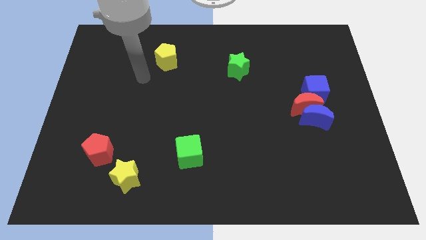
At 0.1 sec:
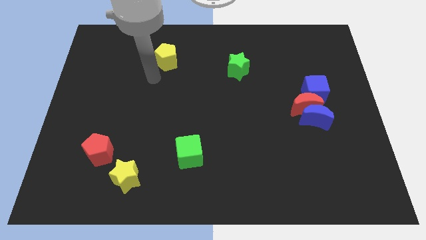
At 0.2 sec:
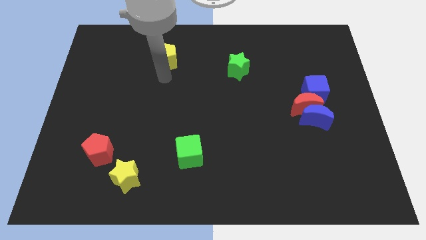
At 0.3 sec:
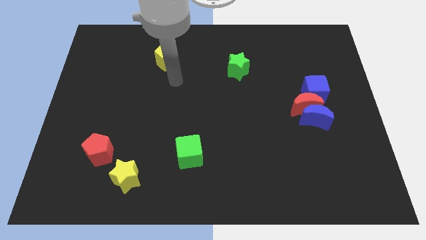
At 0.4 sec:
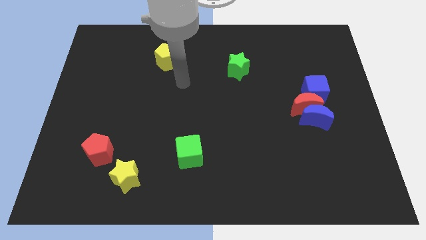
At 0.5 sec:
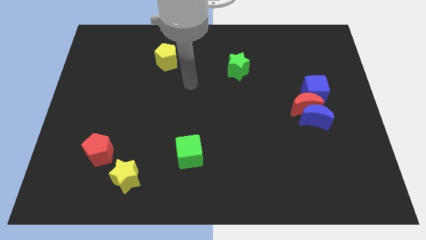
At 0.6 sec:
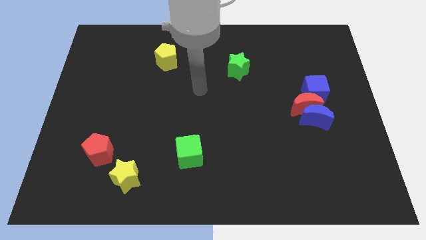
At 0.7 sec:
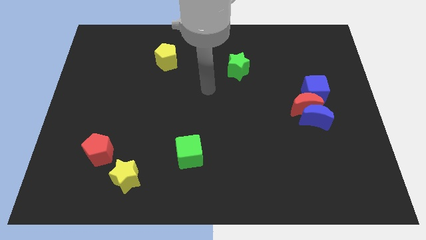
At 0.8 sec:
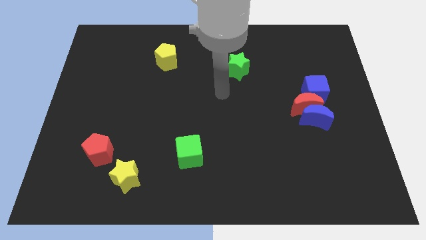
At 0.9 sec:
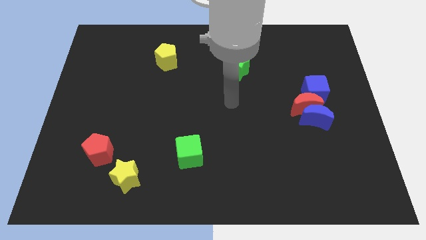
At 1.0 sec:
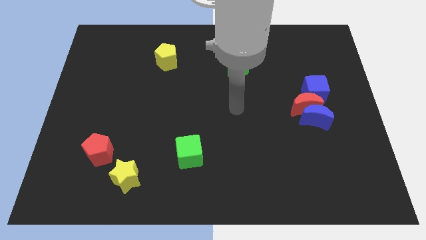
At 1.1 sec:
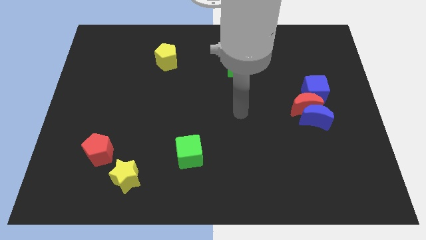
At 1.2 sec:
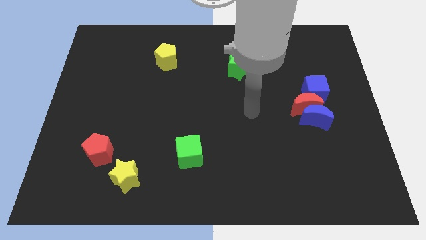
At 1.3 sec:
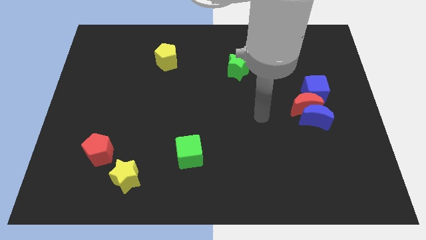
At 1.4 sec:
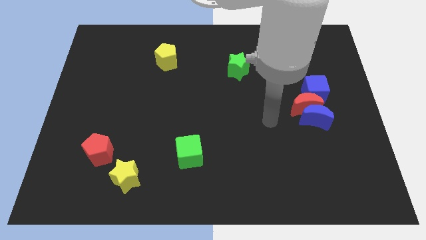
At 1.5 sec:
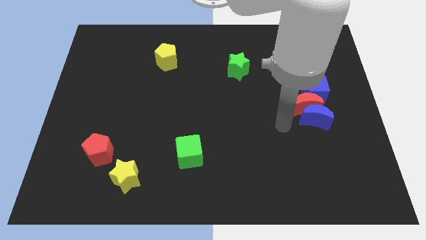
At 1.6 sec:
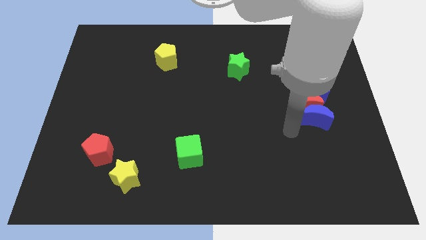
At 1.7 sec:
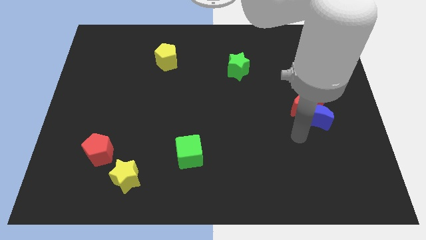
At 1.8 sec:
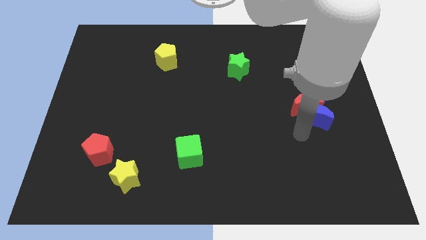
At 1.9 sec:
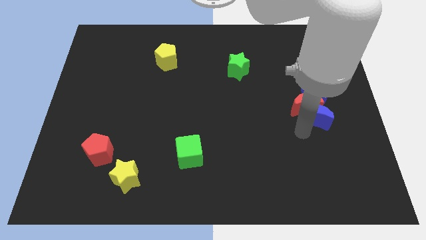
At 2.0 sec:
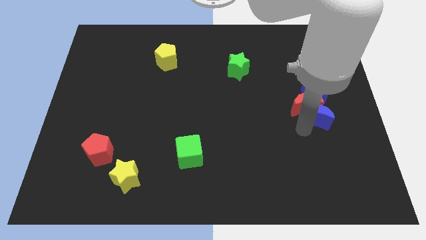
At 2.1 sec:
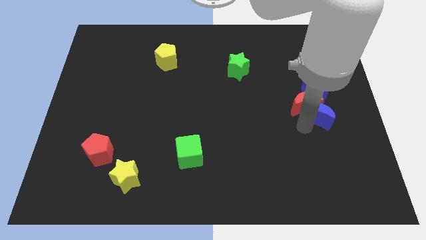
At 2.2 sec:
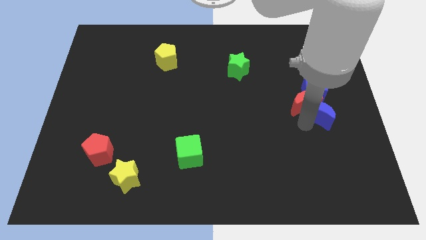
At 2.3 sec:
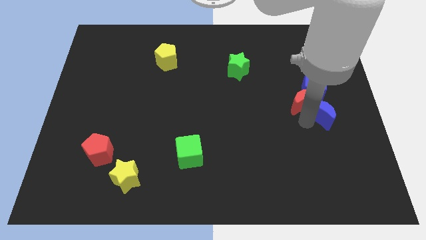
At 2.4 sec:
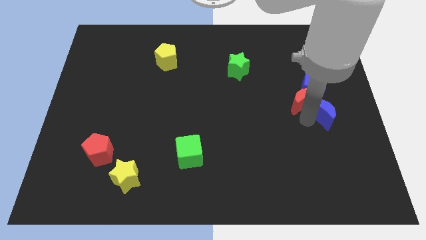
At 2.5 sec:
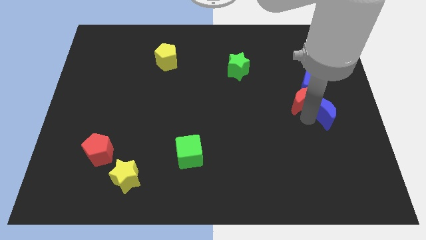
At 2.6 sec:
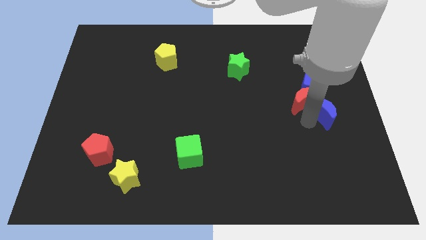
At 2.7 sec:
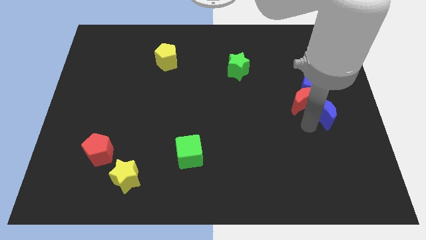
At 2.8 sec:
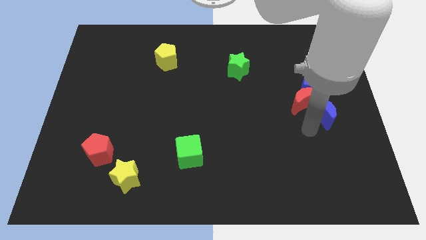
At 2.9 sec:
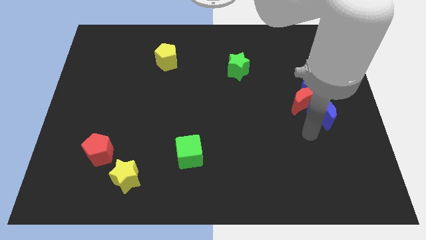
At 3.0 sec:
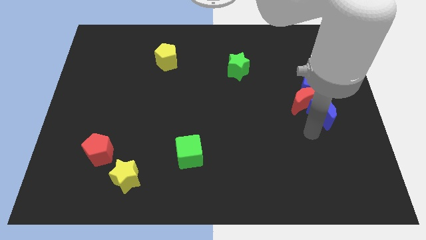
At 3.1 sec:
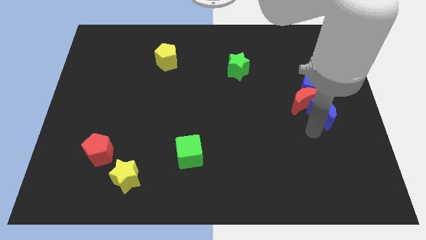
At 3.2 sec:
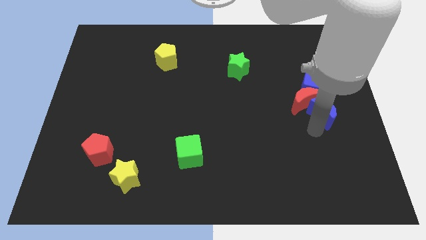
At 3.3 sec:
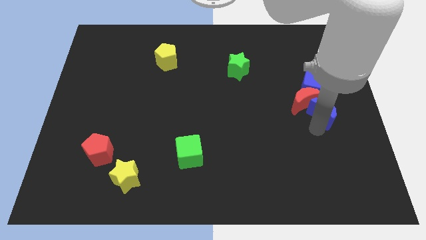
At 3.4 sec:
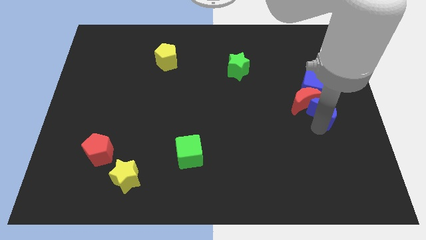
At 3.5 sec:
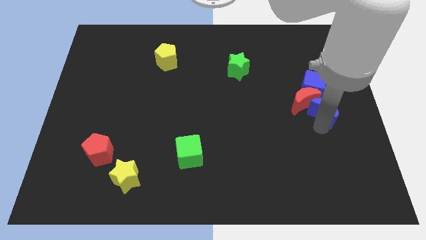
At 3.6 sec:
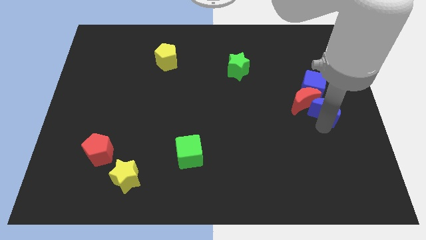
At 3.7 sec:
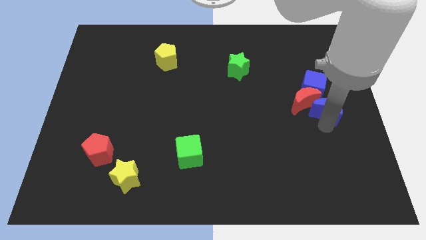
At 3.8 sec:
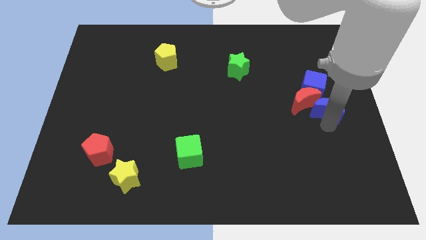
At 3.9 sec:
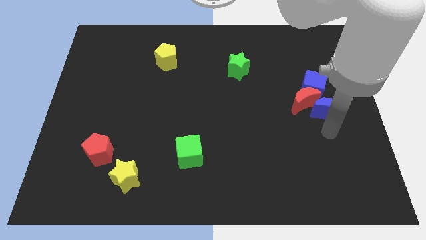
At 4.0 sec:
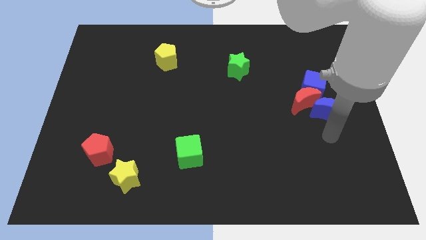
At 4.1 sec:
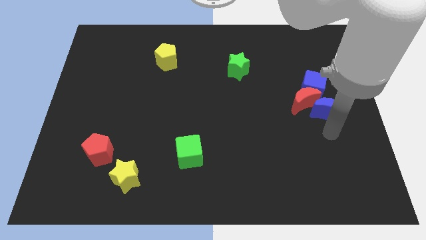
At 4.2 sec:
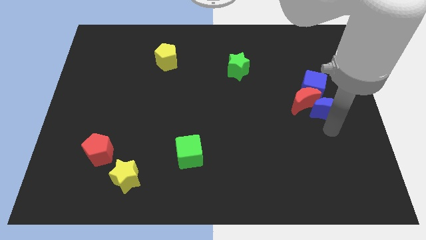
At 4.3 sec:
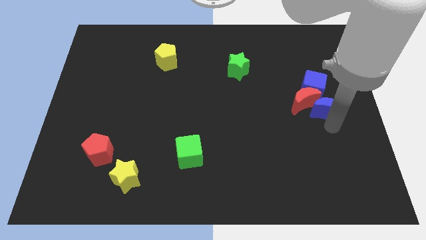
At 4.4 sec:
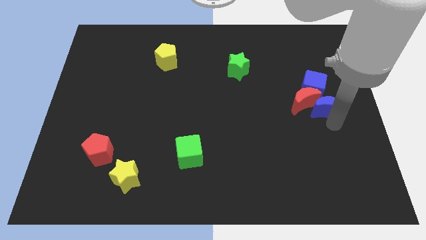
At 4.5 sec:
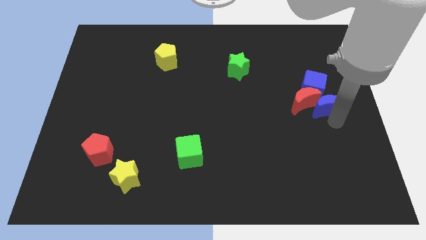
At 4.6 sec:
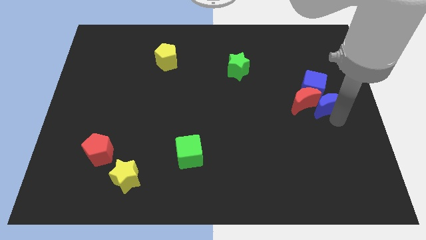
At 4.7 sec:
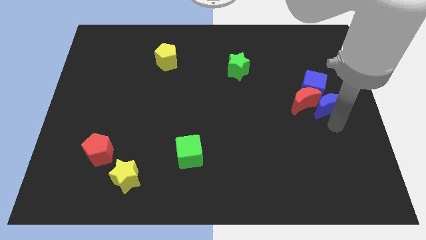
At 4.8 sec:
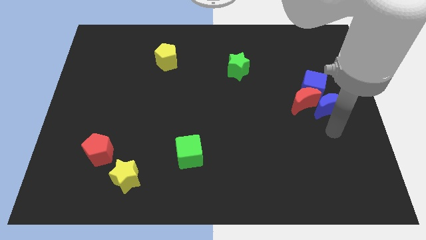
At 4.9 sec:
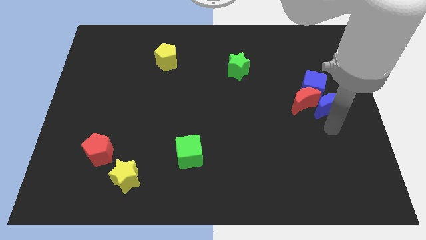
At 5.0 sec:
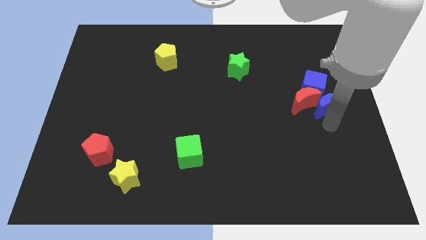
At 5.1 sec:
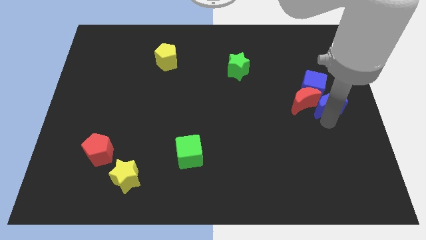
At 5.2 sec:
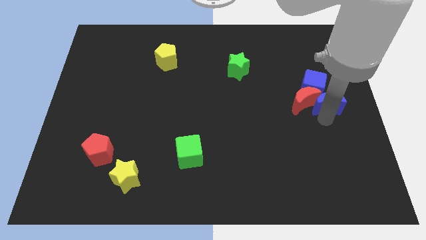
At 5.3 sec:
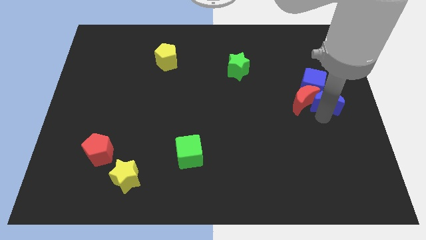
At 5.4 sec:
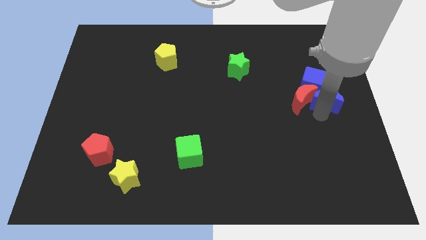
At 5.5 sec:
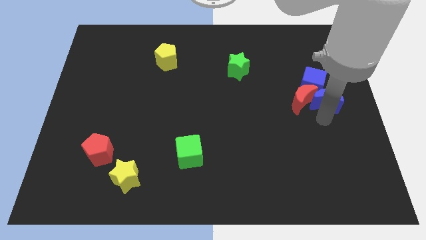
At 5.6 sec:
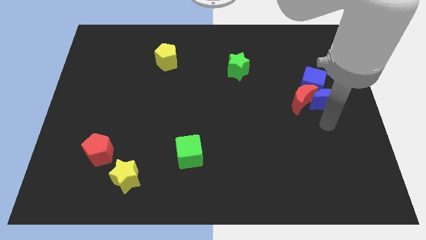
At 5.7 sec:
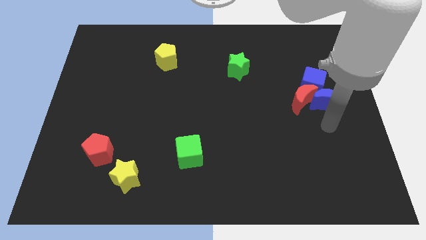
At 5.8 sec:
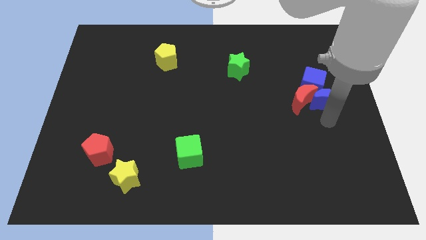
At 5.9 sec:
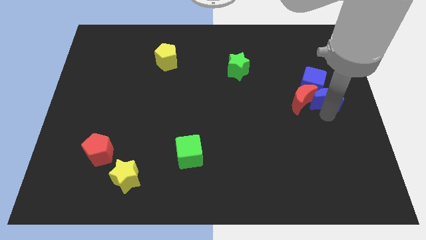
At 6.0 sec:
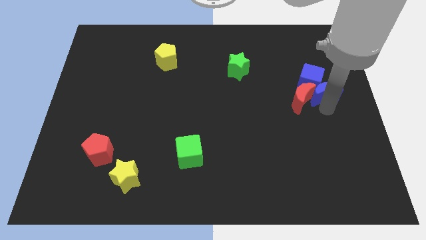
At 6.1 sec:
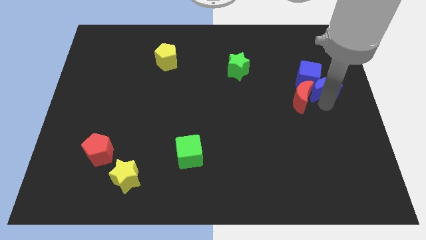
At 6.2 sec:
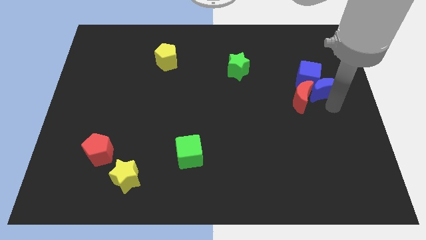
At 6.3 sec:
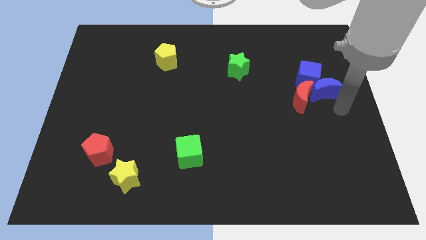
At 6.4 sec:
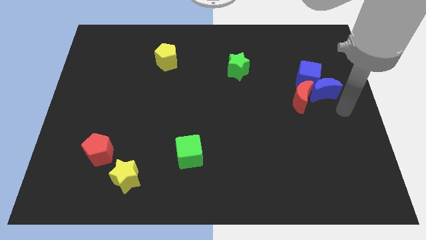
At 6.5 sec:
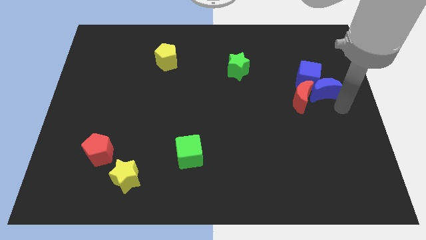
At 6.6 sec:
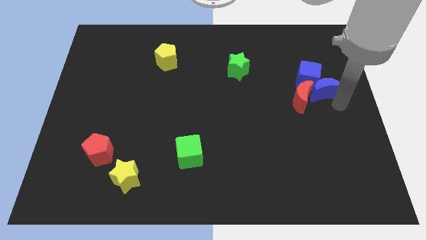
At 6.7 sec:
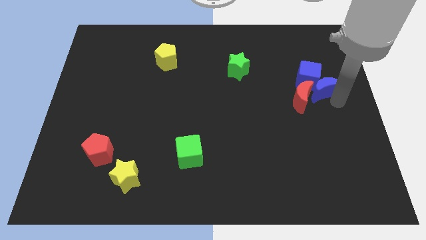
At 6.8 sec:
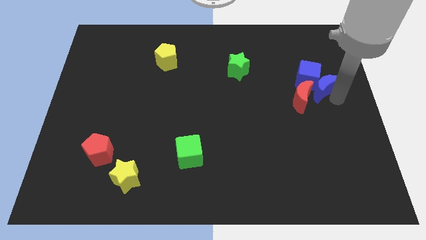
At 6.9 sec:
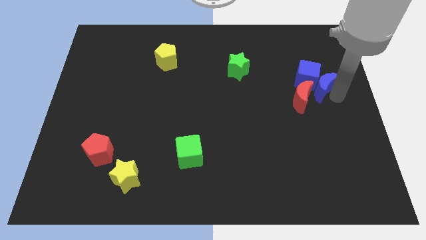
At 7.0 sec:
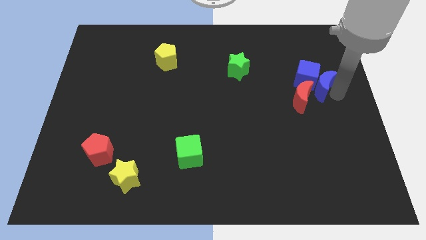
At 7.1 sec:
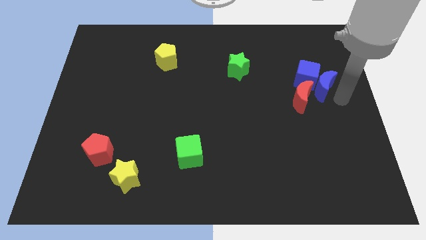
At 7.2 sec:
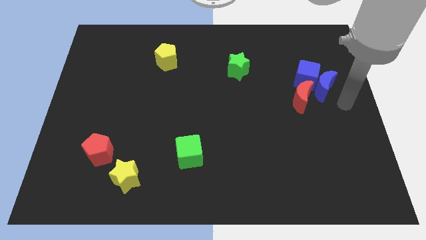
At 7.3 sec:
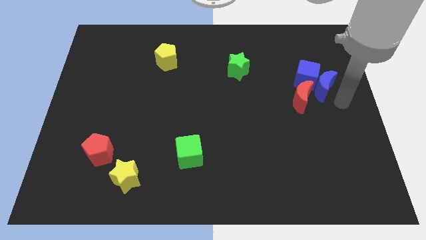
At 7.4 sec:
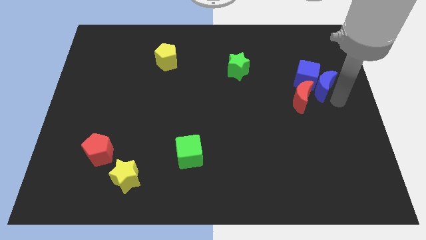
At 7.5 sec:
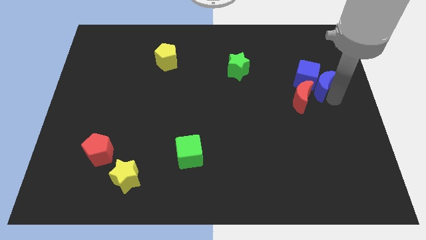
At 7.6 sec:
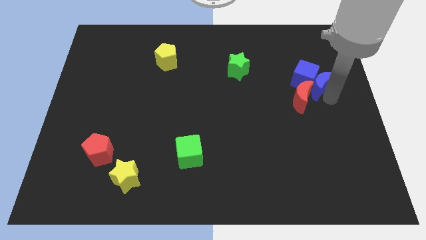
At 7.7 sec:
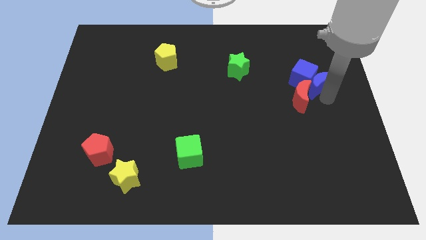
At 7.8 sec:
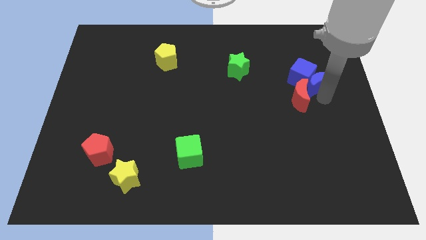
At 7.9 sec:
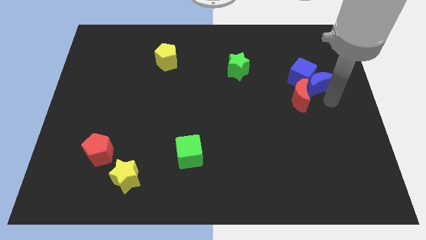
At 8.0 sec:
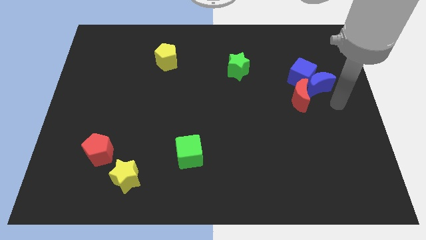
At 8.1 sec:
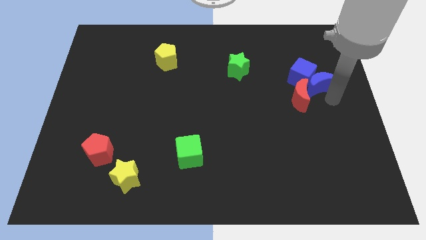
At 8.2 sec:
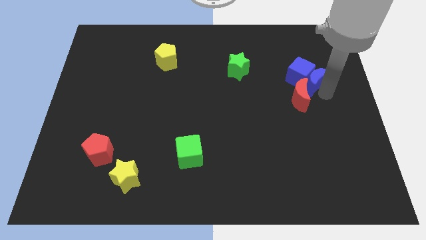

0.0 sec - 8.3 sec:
move the blue moon above the red moon
